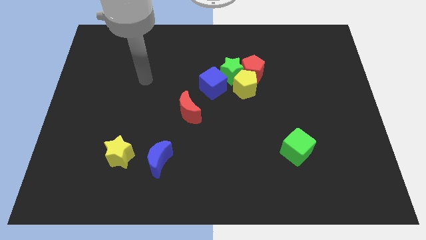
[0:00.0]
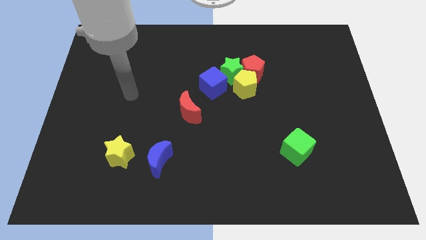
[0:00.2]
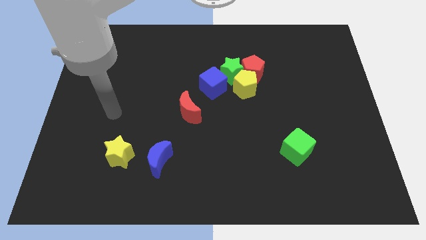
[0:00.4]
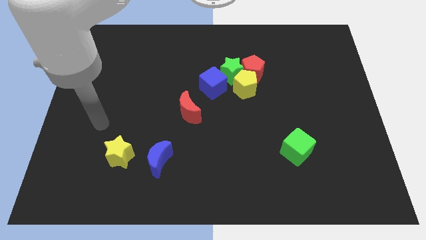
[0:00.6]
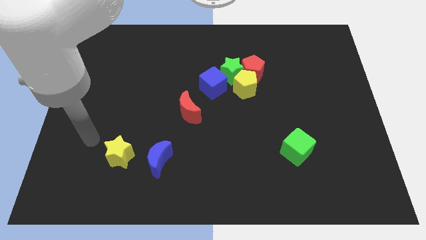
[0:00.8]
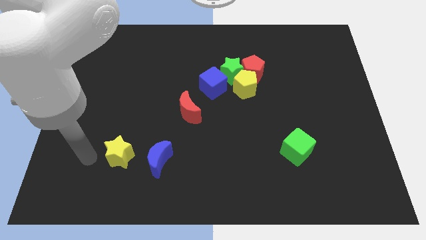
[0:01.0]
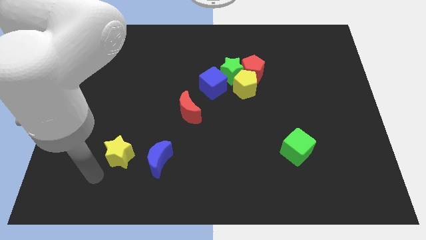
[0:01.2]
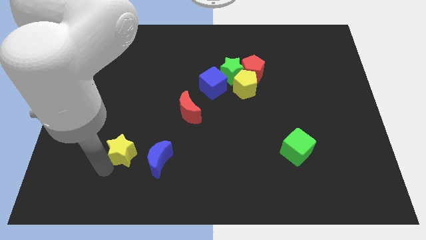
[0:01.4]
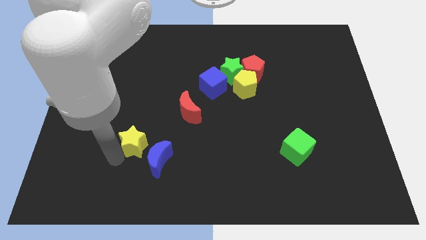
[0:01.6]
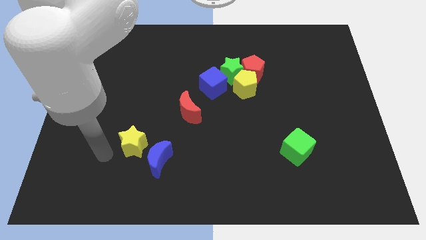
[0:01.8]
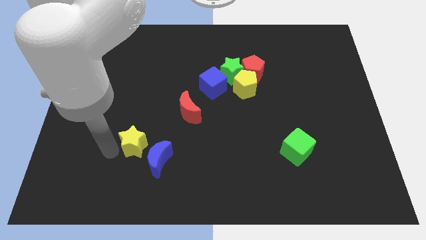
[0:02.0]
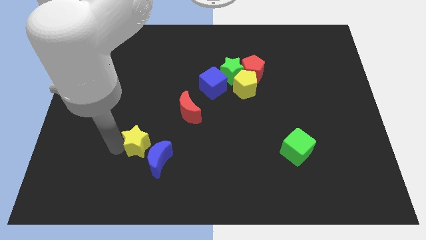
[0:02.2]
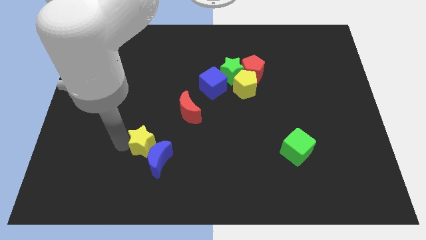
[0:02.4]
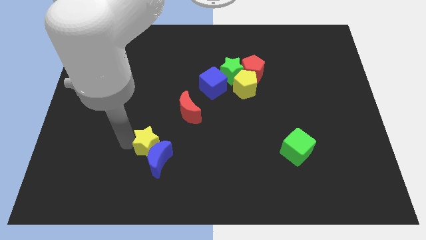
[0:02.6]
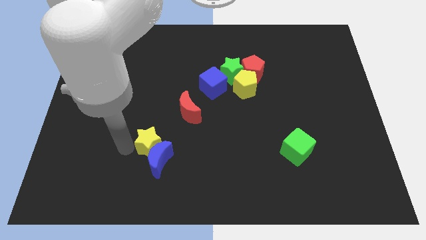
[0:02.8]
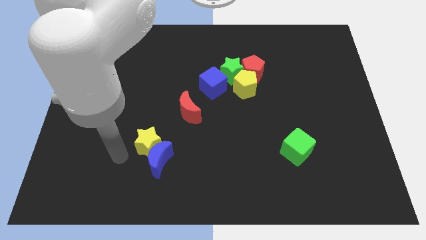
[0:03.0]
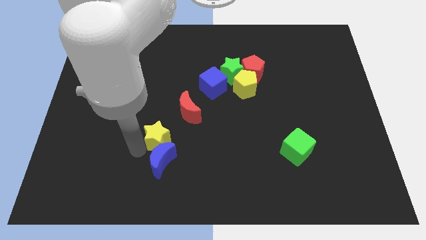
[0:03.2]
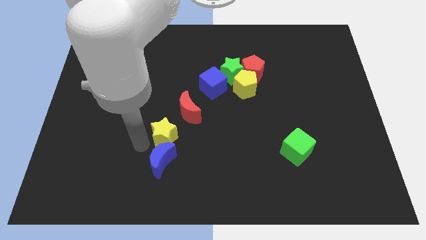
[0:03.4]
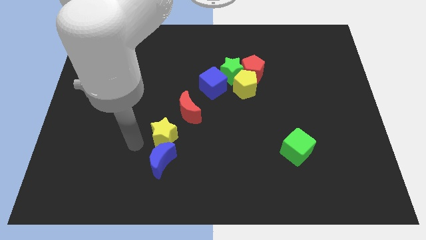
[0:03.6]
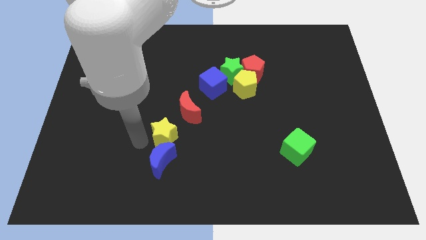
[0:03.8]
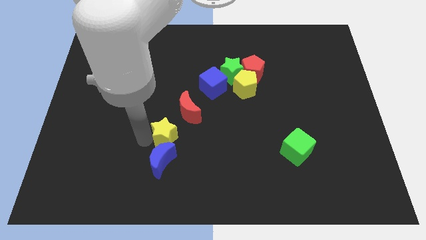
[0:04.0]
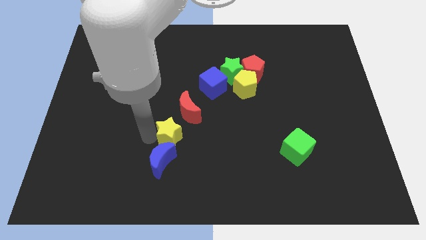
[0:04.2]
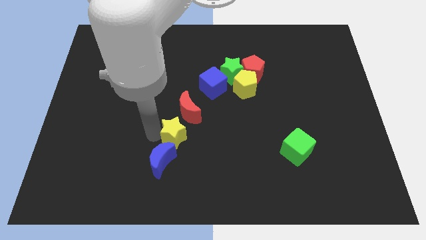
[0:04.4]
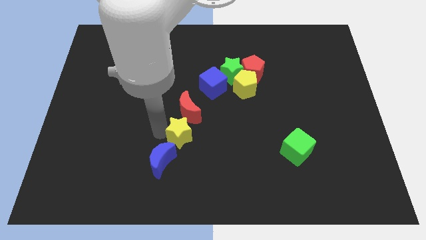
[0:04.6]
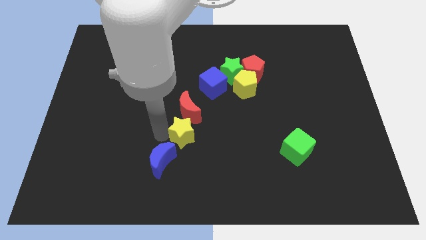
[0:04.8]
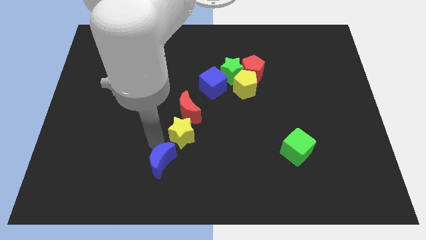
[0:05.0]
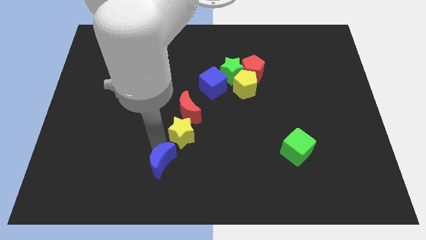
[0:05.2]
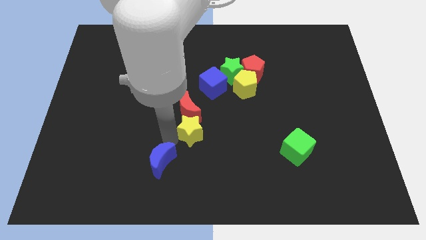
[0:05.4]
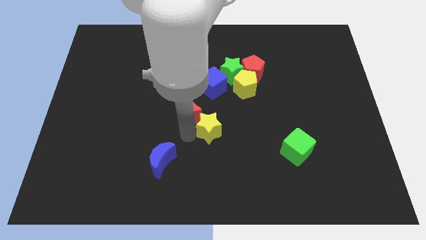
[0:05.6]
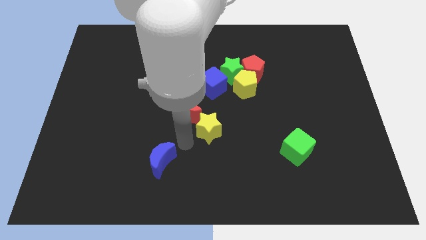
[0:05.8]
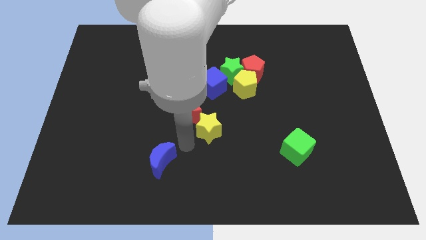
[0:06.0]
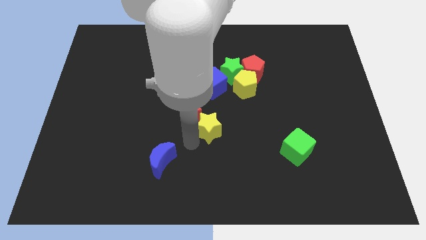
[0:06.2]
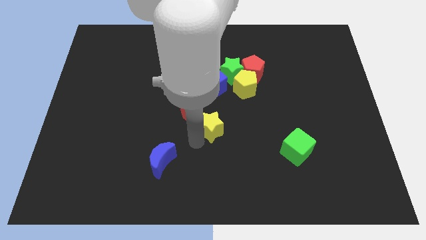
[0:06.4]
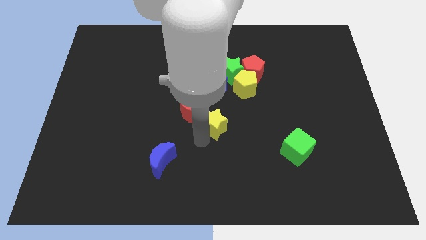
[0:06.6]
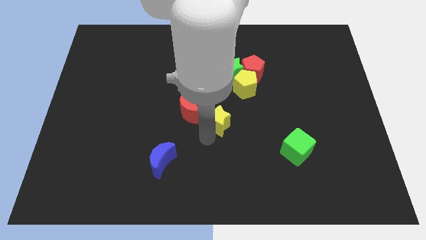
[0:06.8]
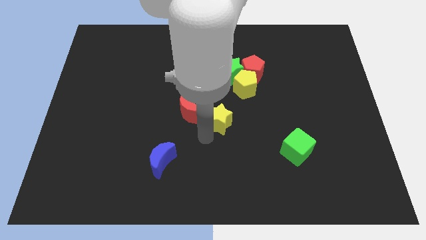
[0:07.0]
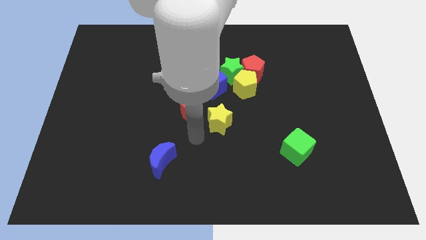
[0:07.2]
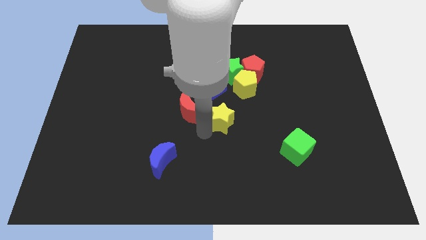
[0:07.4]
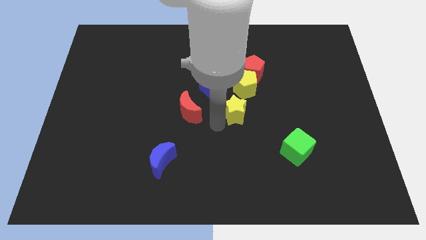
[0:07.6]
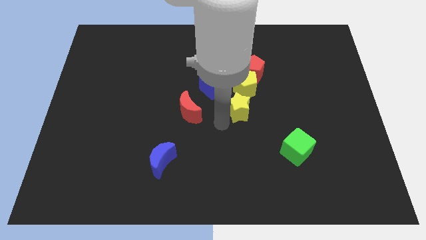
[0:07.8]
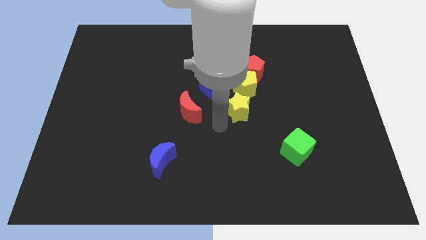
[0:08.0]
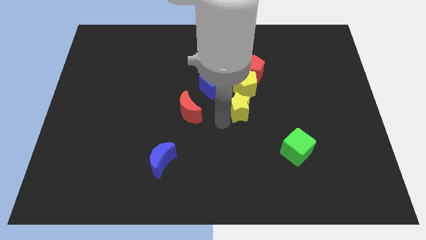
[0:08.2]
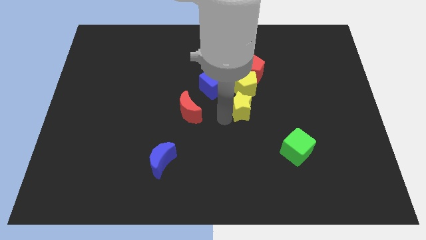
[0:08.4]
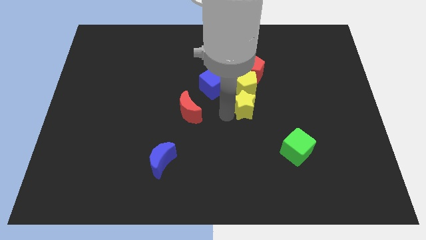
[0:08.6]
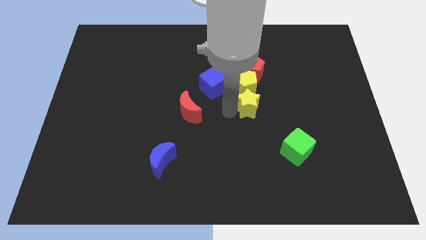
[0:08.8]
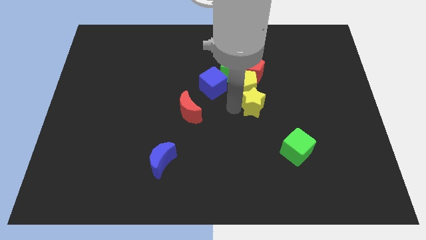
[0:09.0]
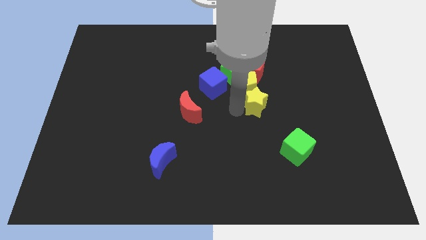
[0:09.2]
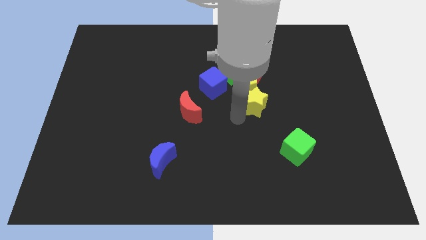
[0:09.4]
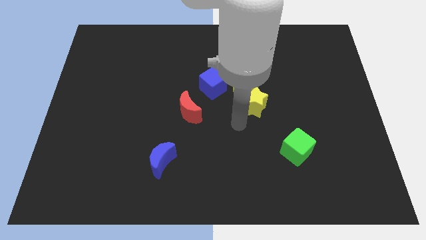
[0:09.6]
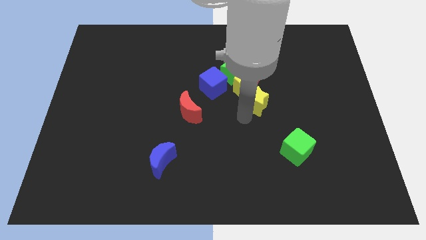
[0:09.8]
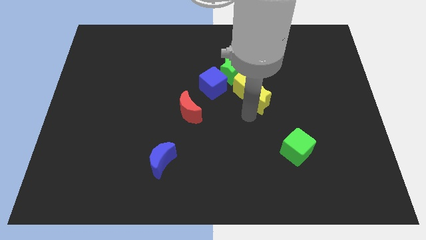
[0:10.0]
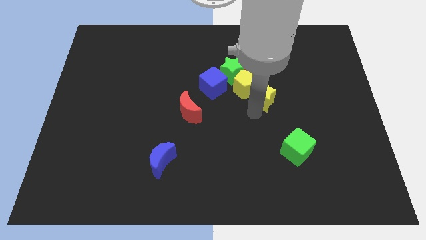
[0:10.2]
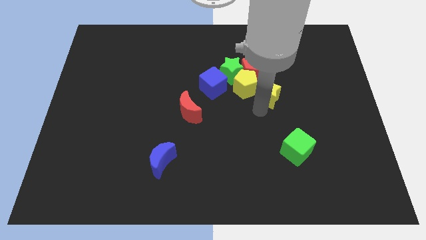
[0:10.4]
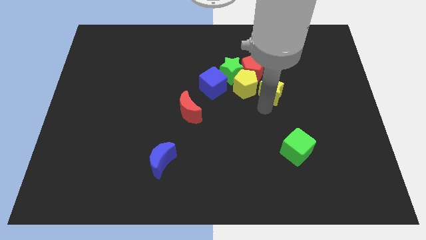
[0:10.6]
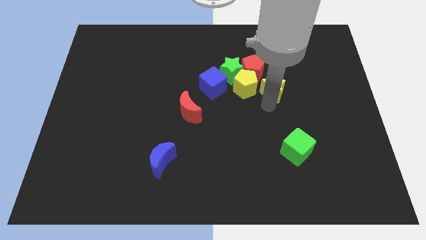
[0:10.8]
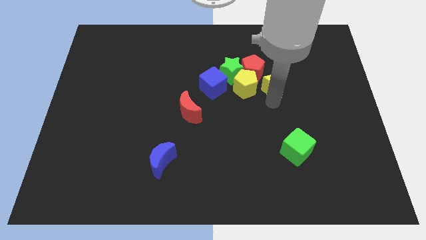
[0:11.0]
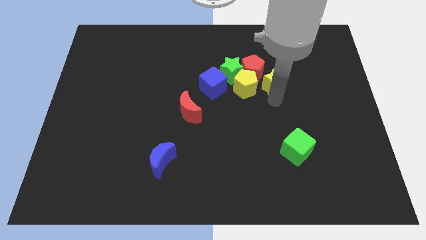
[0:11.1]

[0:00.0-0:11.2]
push the yellow star to the top right side of the yellow pentagon

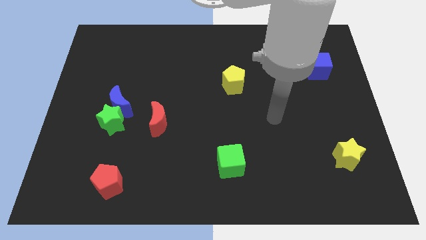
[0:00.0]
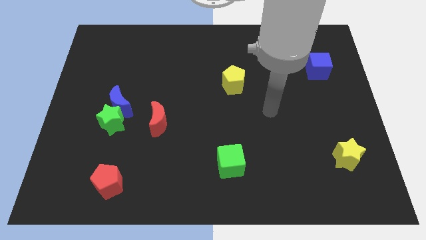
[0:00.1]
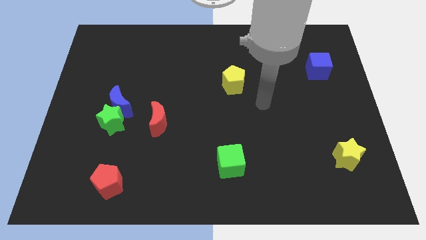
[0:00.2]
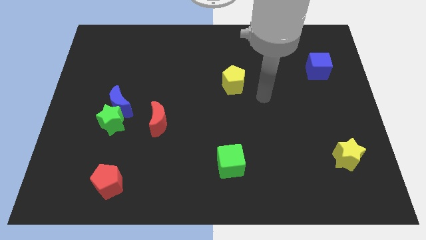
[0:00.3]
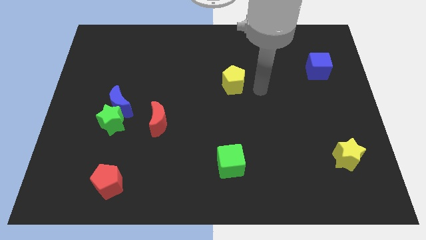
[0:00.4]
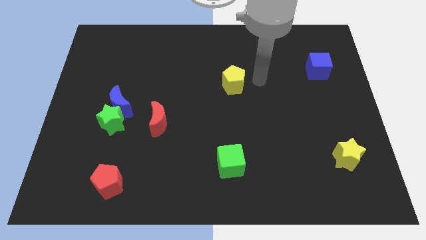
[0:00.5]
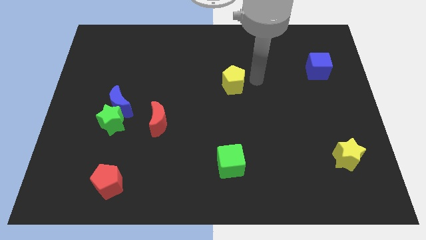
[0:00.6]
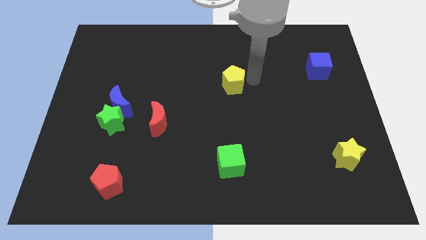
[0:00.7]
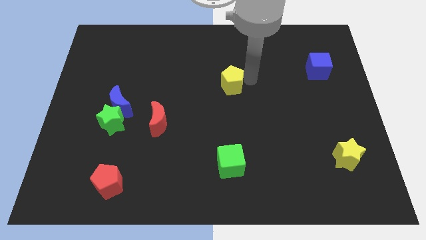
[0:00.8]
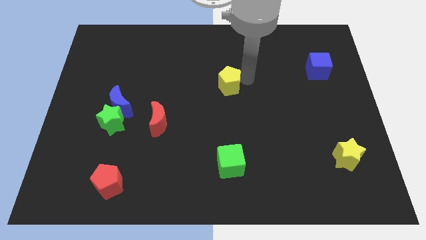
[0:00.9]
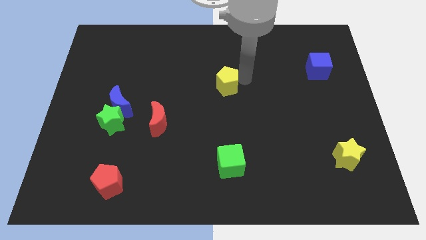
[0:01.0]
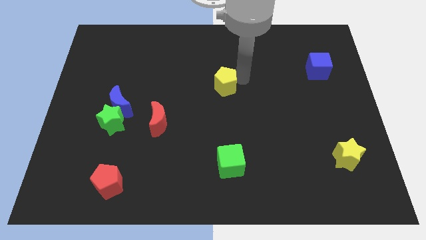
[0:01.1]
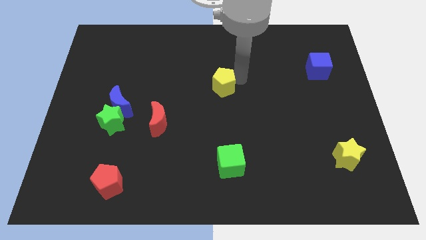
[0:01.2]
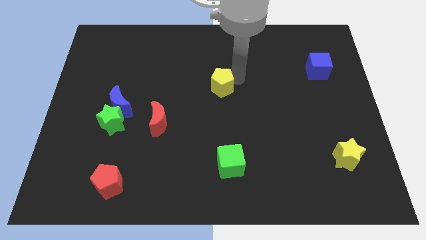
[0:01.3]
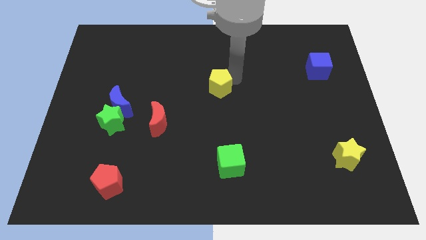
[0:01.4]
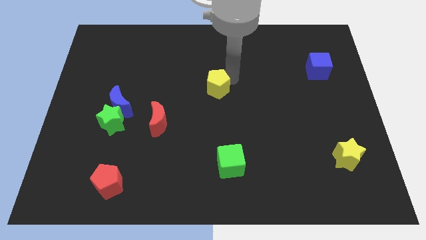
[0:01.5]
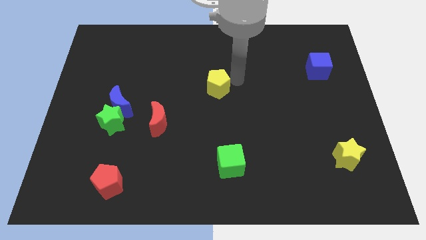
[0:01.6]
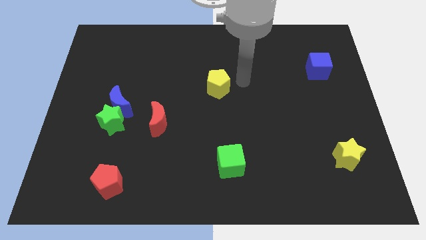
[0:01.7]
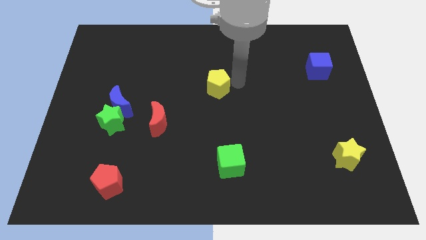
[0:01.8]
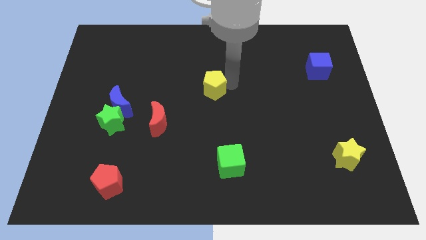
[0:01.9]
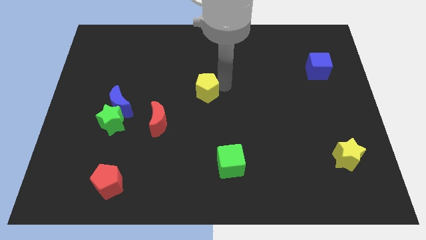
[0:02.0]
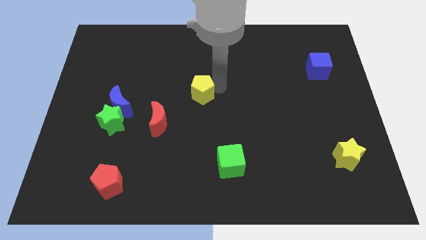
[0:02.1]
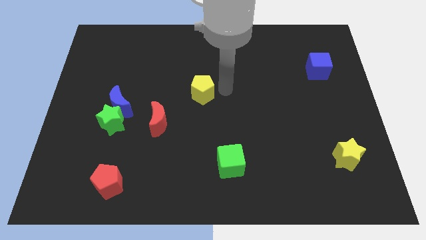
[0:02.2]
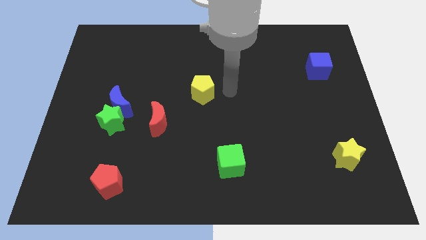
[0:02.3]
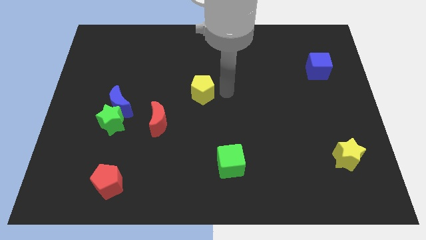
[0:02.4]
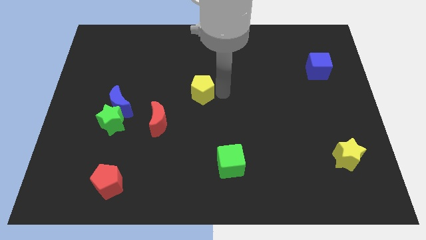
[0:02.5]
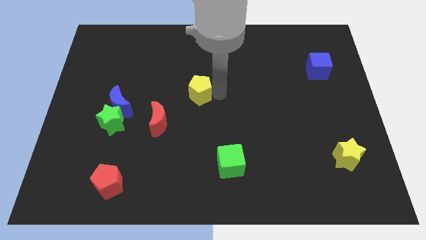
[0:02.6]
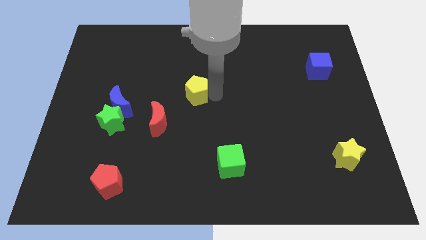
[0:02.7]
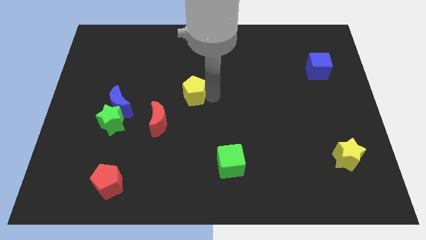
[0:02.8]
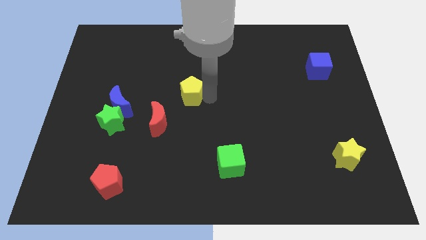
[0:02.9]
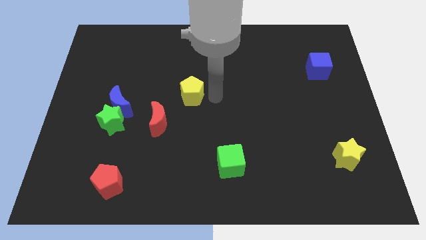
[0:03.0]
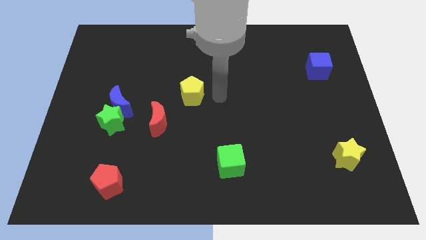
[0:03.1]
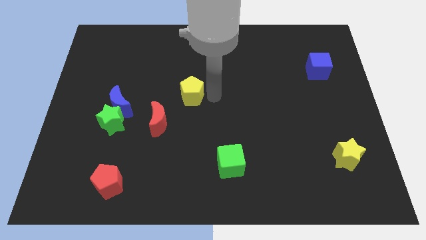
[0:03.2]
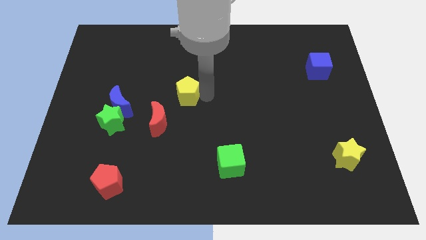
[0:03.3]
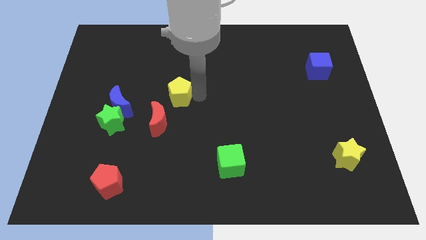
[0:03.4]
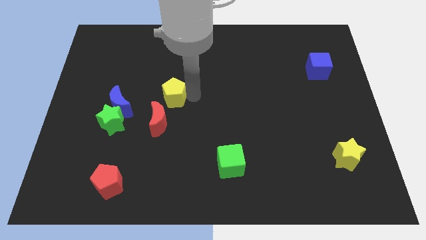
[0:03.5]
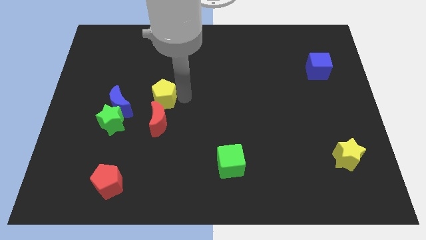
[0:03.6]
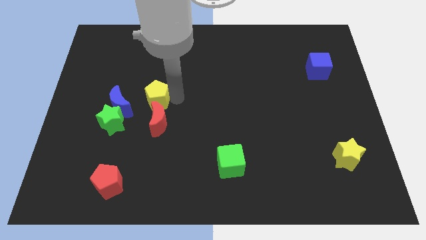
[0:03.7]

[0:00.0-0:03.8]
put the yellow pentagon diagonally up and to the right of the blue moon
